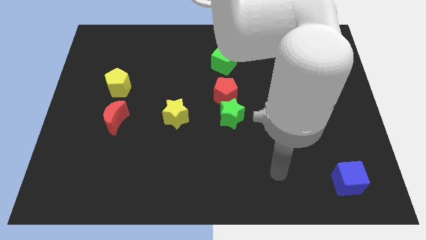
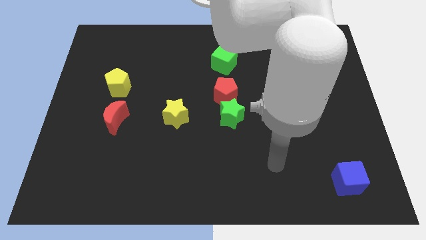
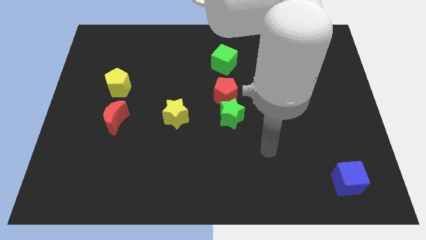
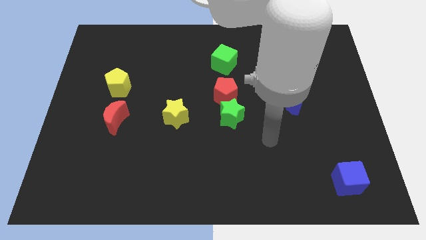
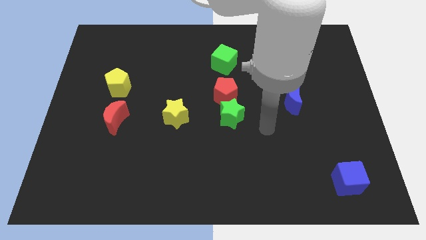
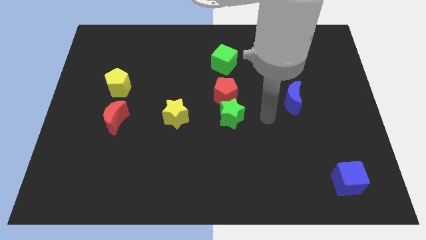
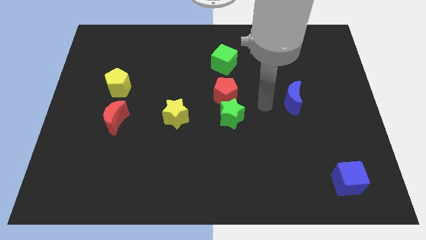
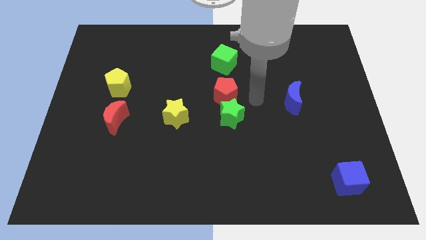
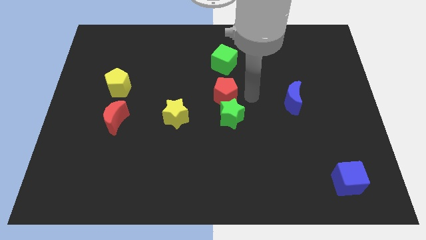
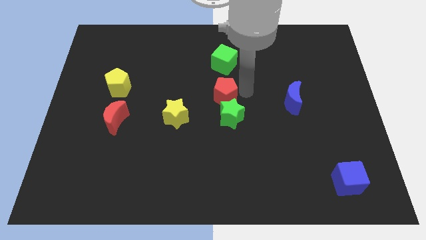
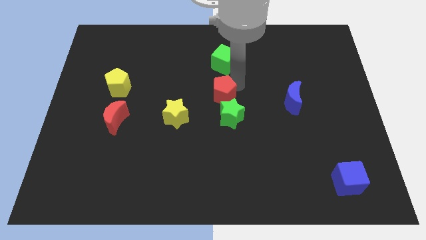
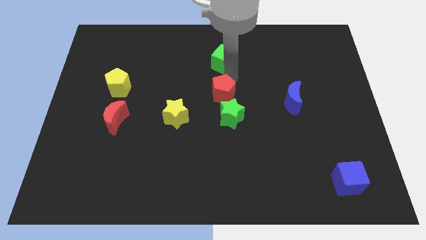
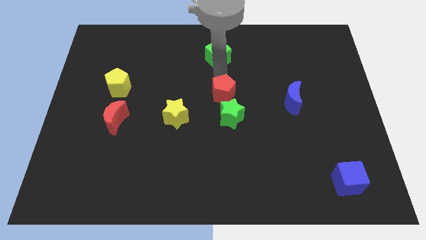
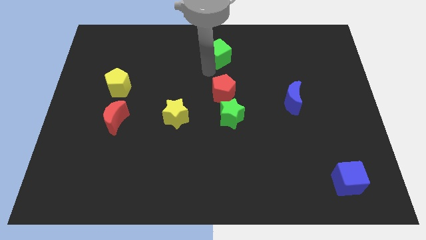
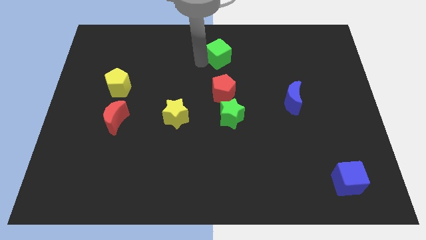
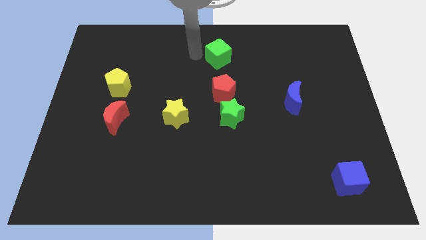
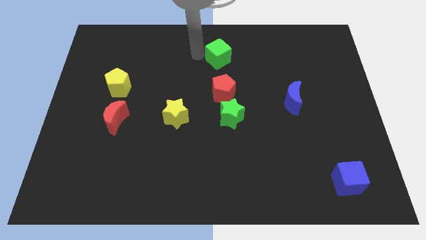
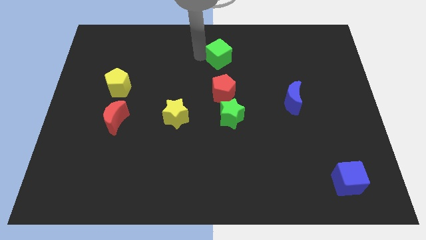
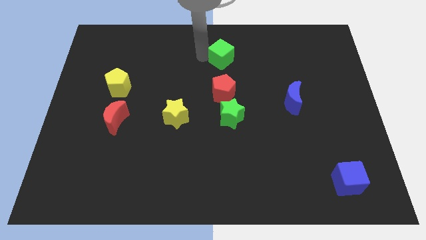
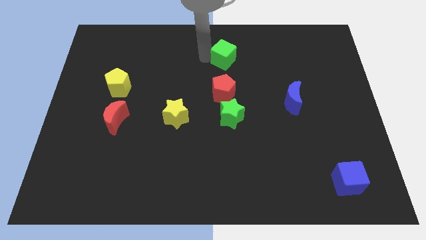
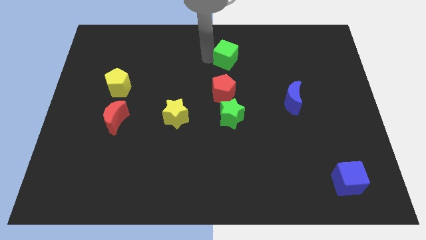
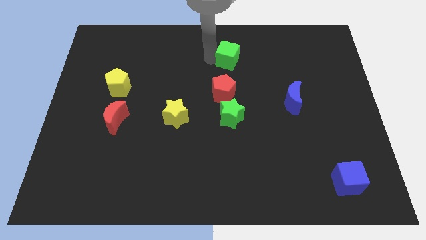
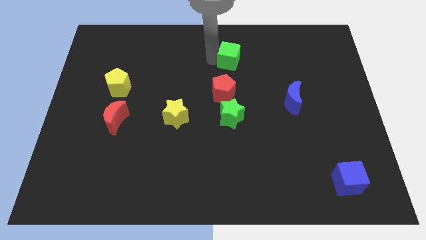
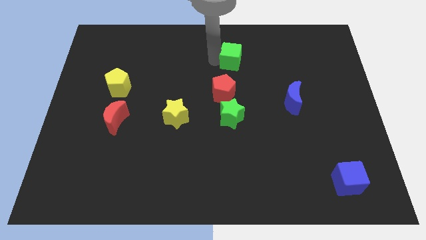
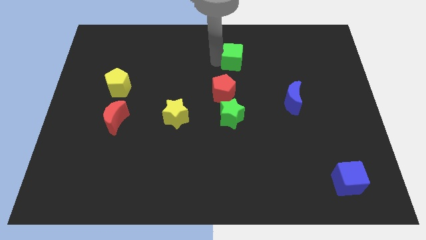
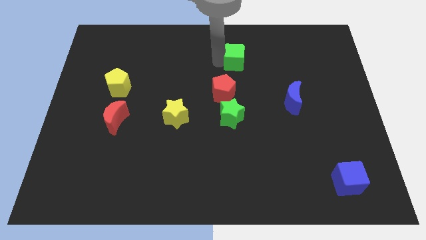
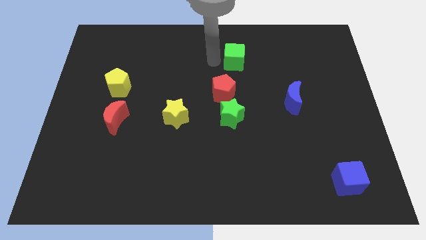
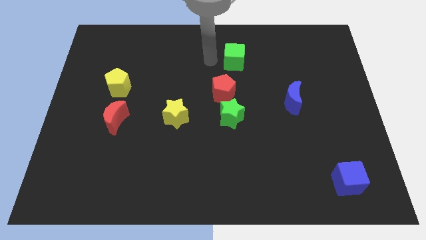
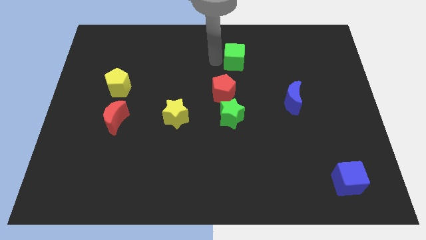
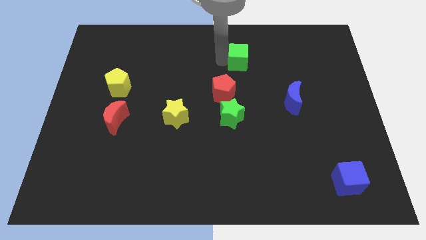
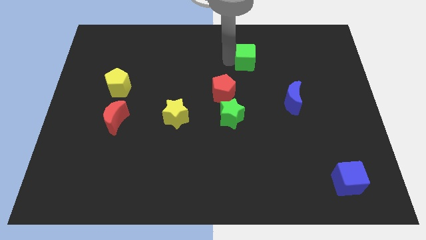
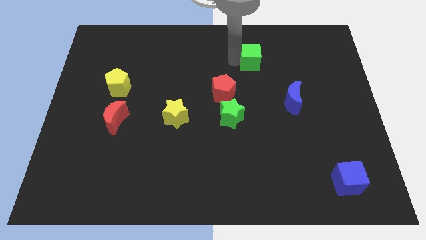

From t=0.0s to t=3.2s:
move the green cube slightly to the right

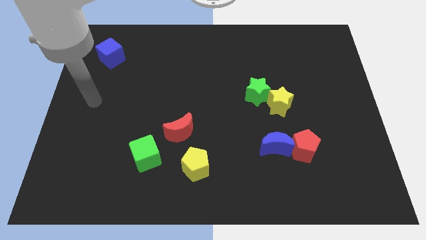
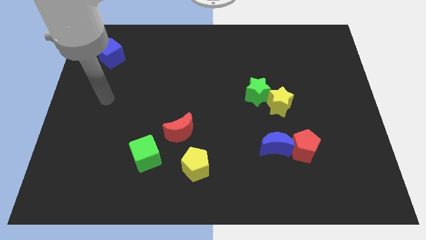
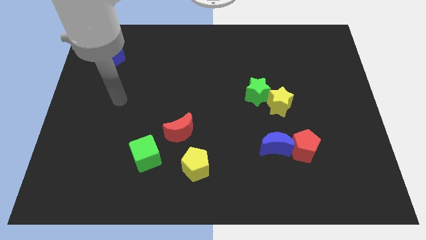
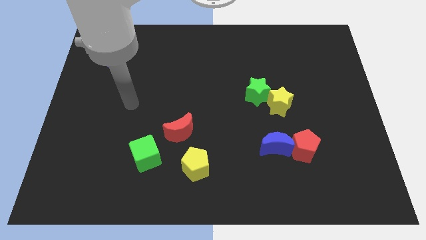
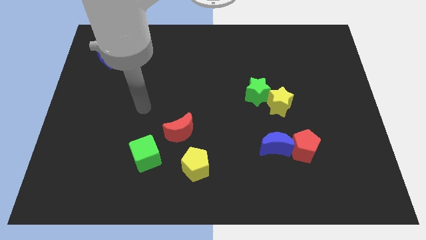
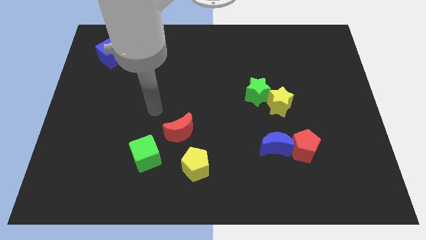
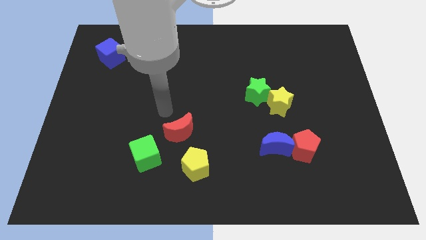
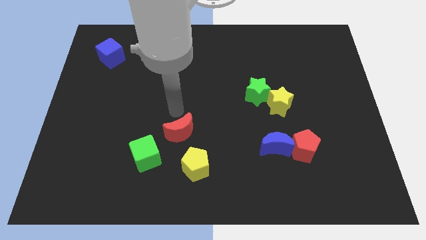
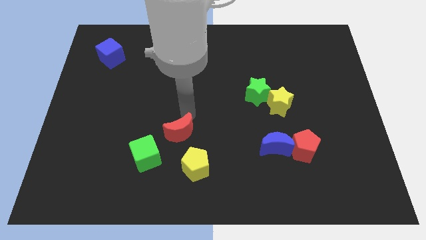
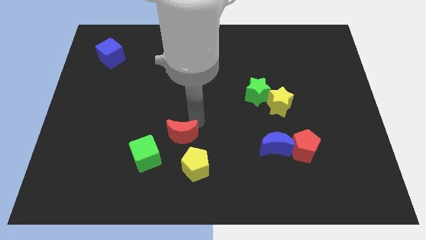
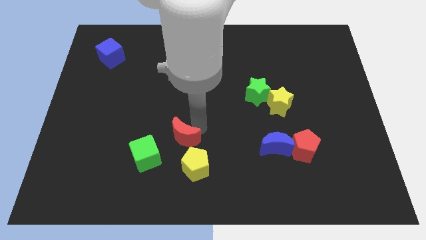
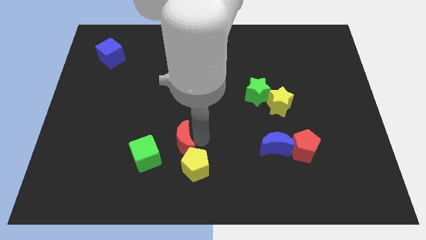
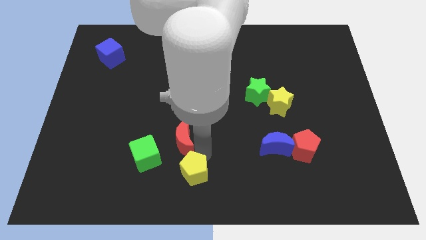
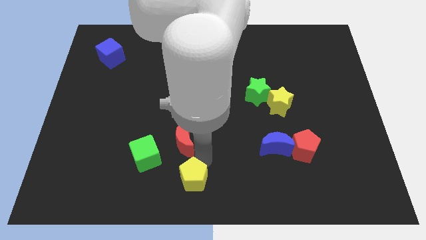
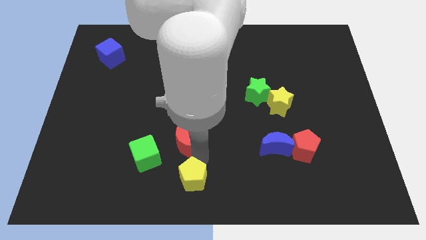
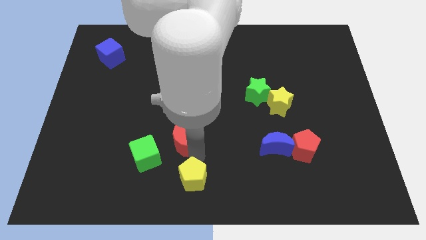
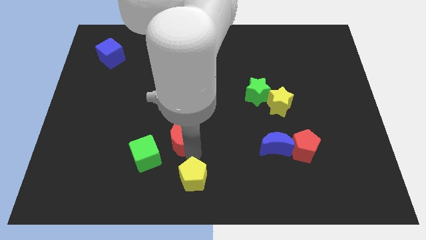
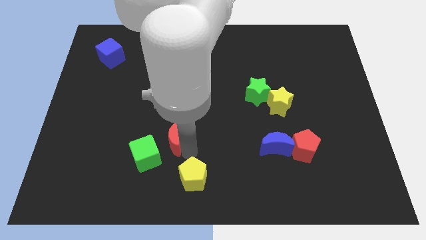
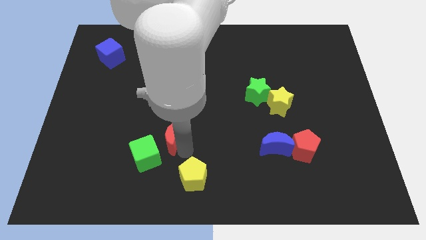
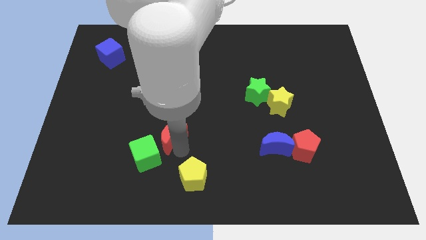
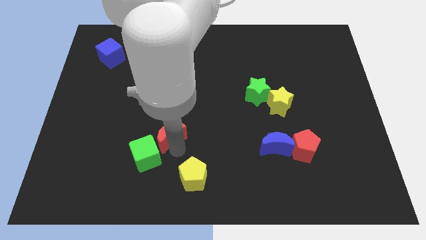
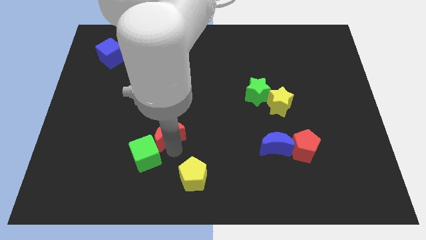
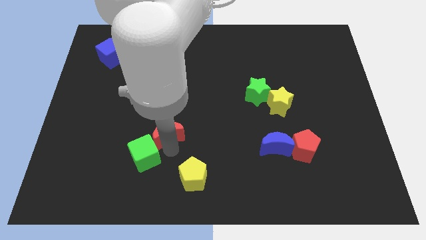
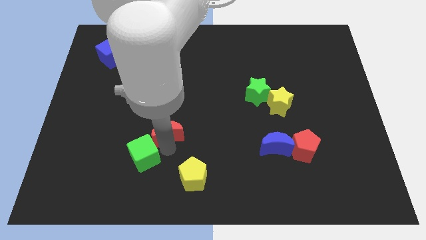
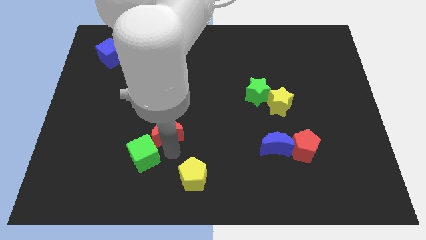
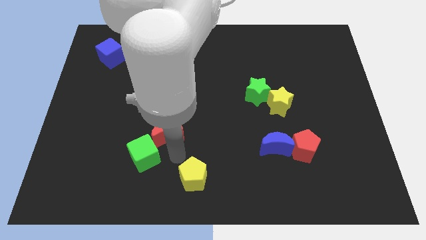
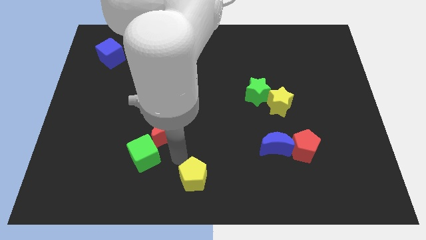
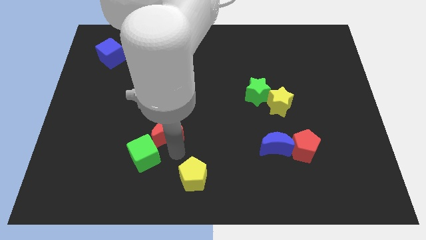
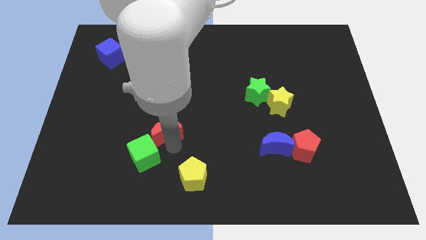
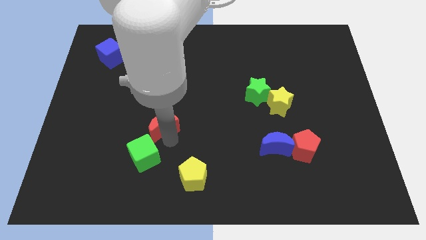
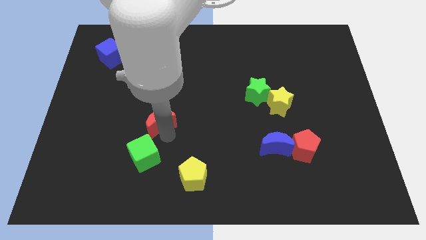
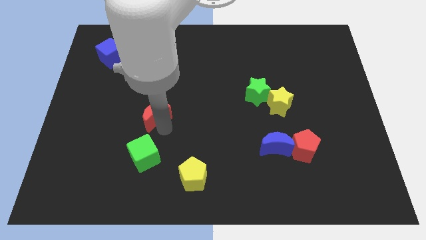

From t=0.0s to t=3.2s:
slide the red moon a bit diagonally up and to the left

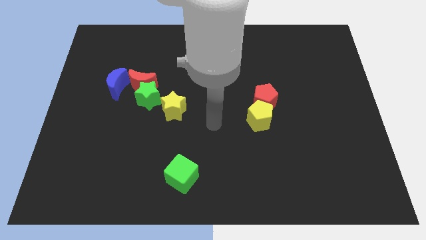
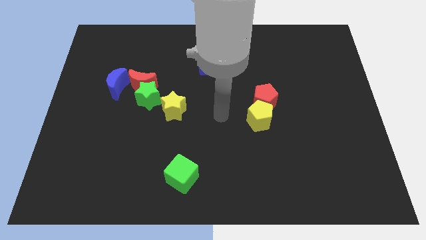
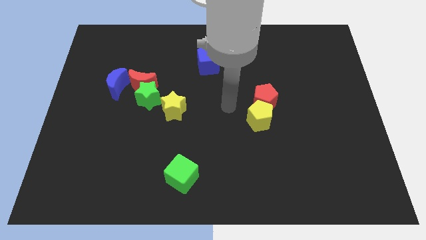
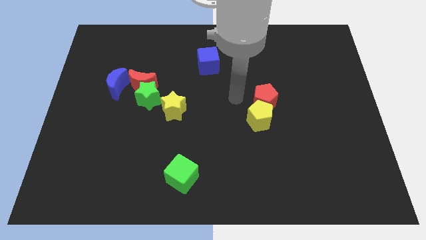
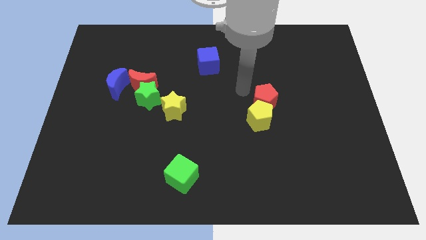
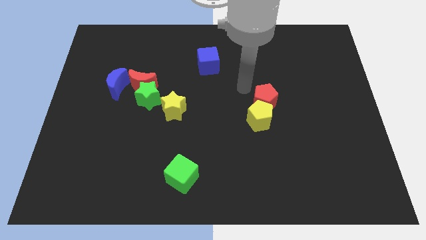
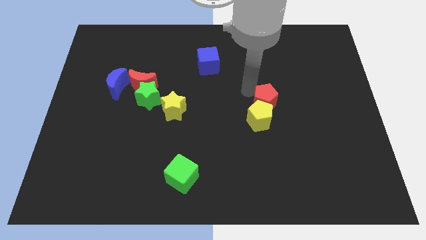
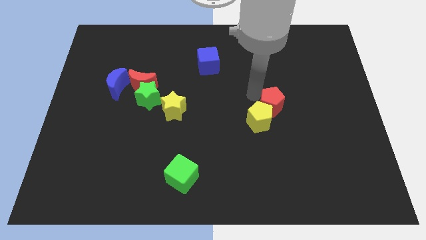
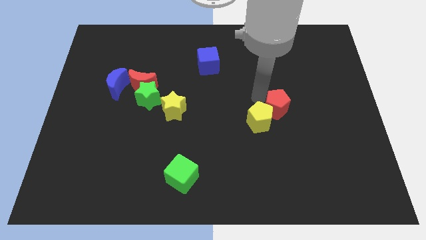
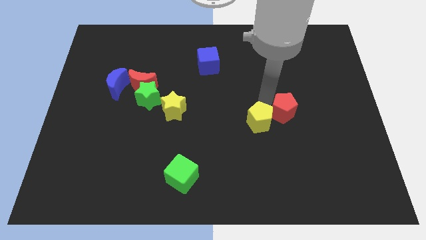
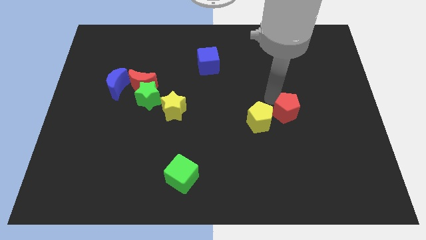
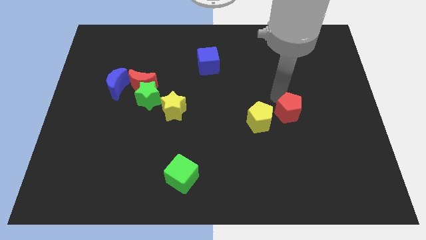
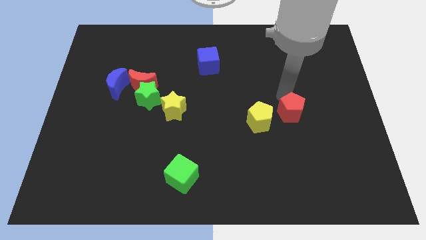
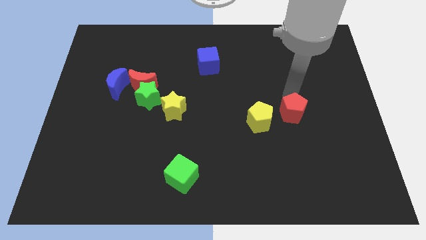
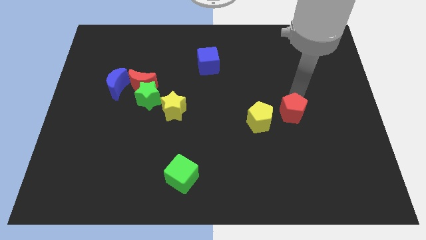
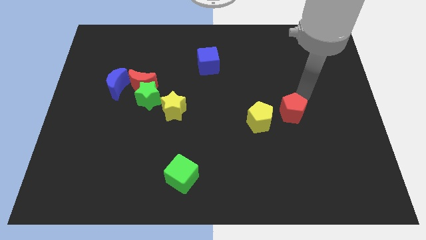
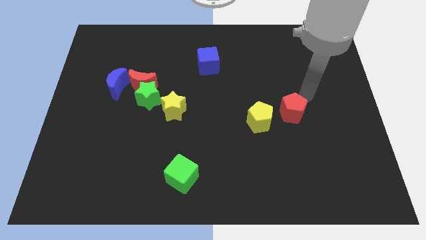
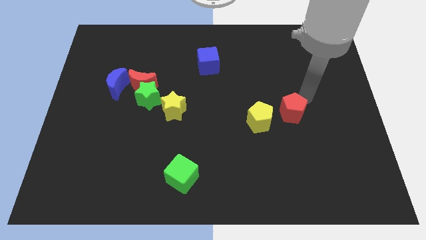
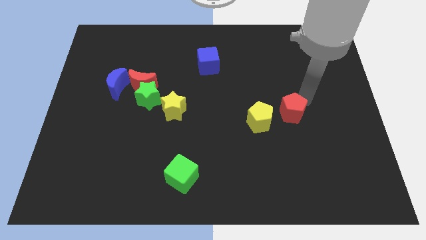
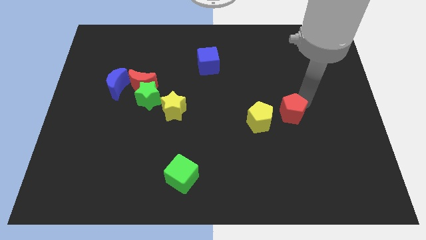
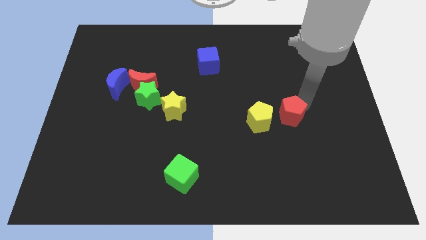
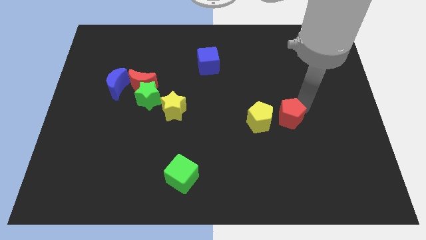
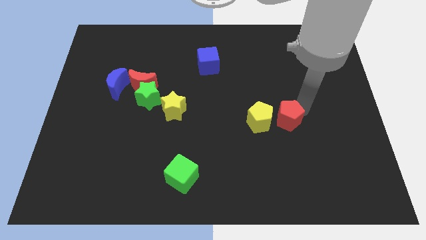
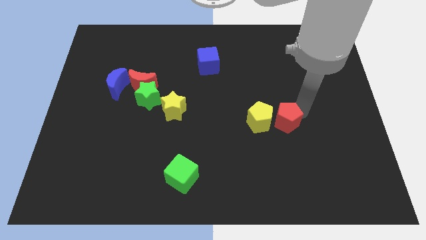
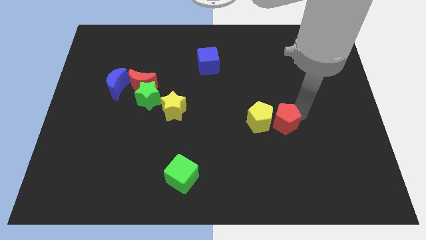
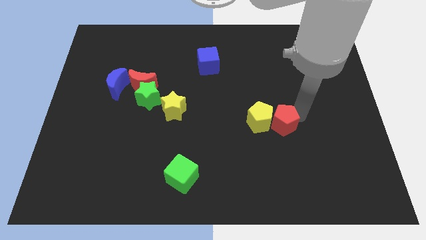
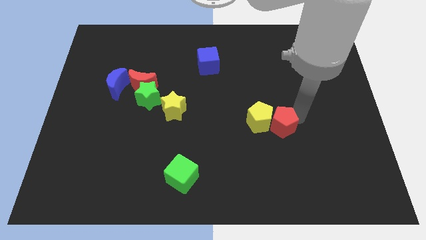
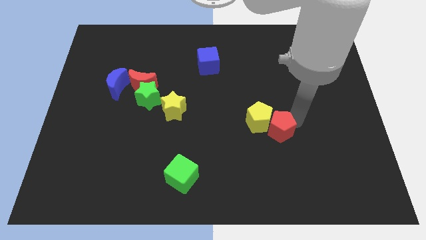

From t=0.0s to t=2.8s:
slightly move the red pentagon down
